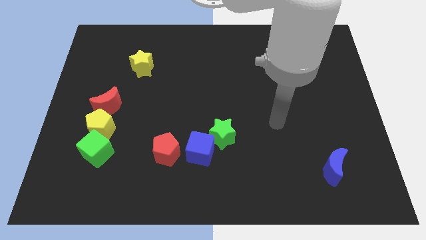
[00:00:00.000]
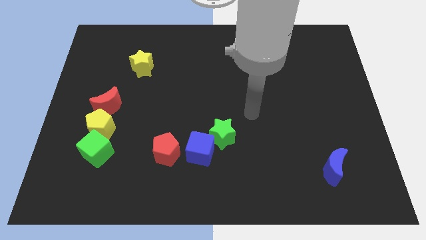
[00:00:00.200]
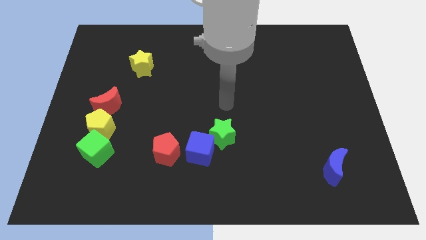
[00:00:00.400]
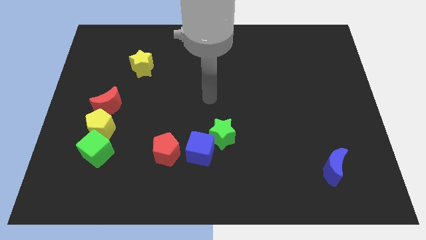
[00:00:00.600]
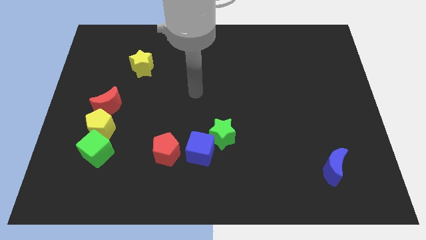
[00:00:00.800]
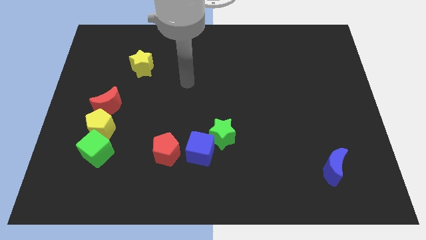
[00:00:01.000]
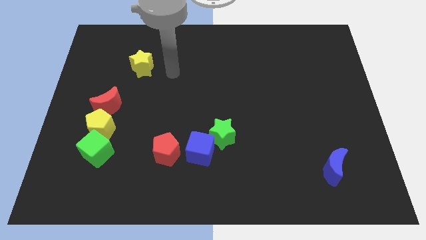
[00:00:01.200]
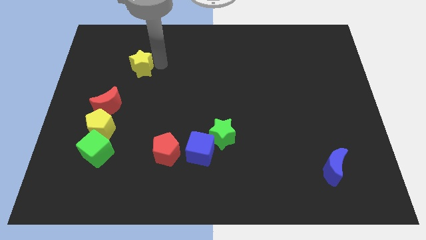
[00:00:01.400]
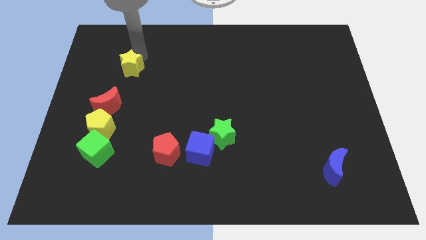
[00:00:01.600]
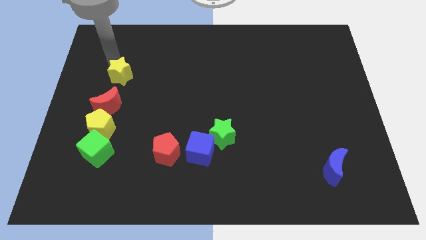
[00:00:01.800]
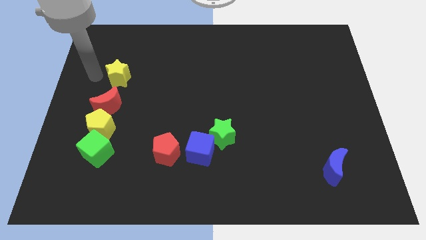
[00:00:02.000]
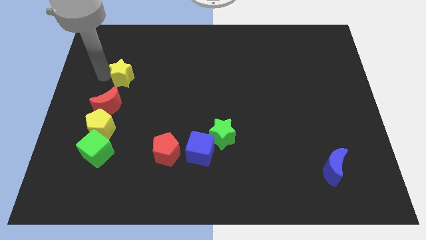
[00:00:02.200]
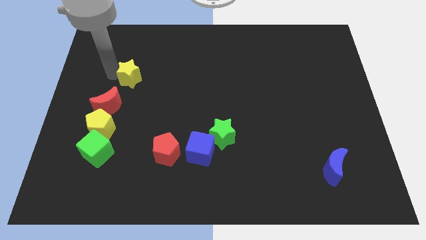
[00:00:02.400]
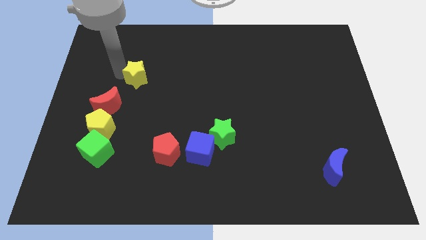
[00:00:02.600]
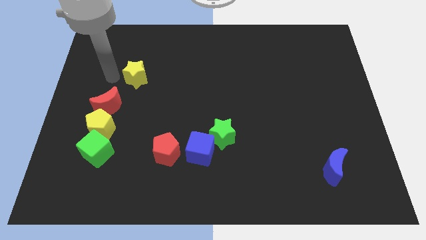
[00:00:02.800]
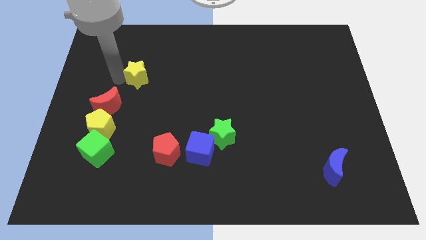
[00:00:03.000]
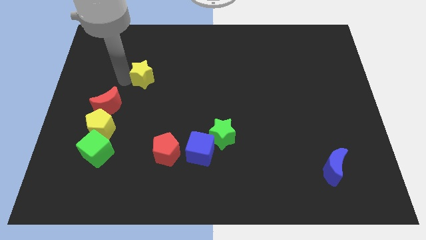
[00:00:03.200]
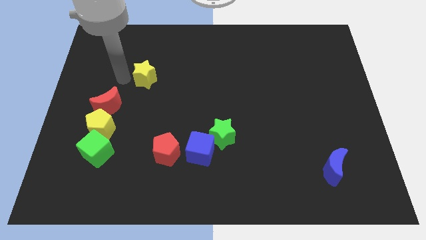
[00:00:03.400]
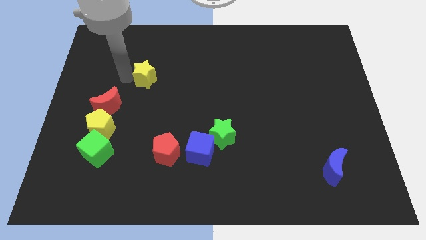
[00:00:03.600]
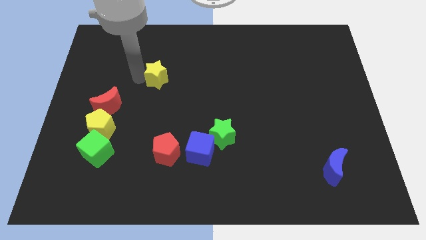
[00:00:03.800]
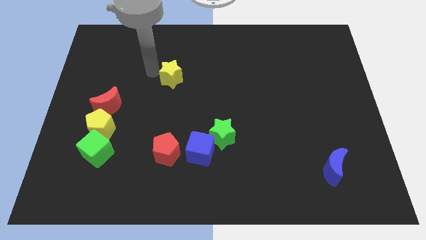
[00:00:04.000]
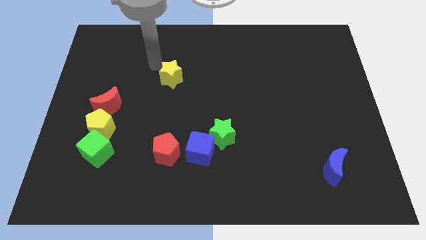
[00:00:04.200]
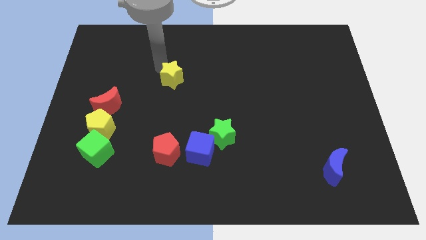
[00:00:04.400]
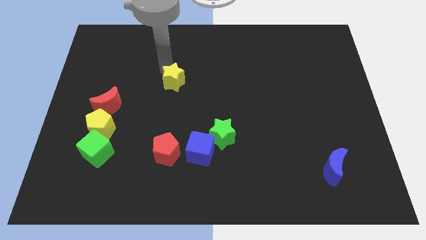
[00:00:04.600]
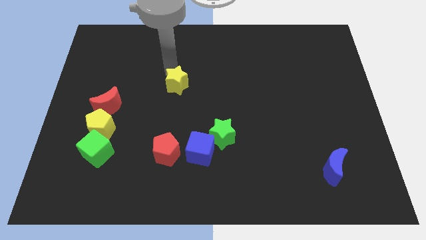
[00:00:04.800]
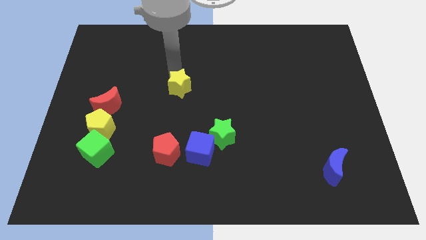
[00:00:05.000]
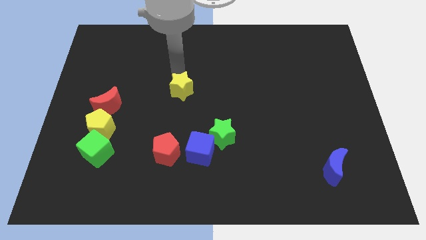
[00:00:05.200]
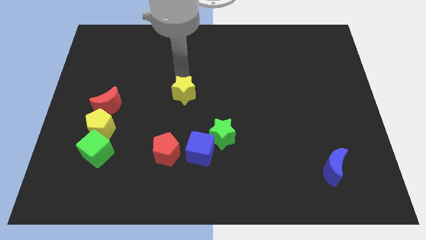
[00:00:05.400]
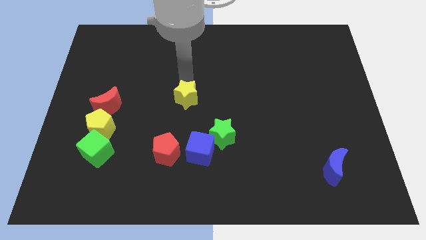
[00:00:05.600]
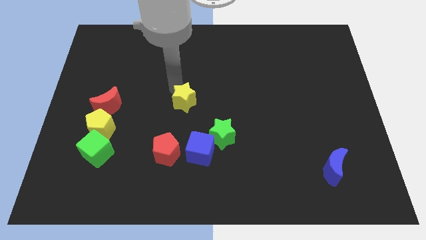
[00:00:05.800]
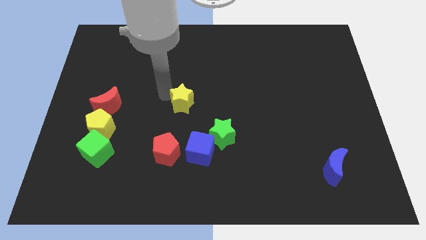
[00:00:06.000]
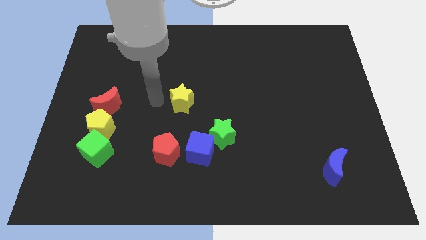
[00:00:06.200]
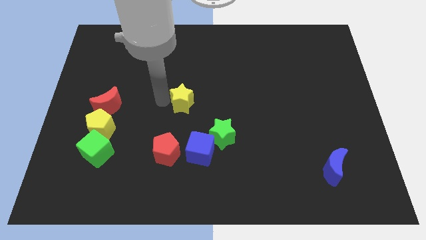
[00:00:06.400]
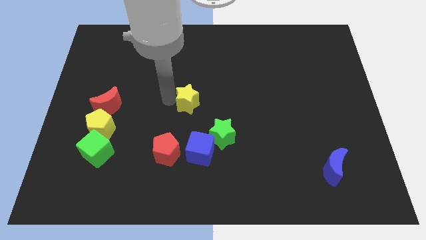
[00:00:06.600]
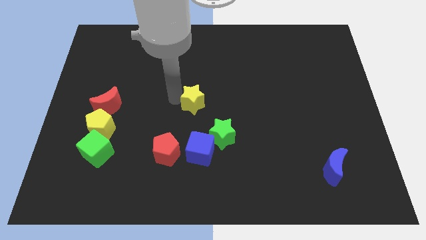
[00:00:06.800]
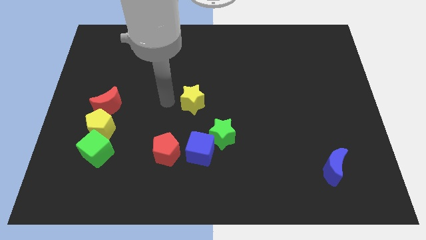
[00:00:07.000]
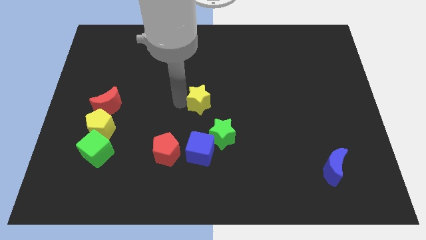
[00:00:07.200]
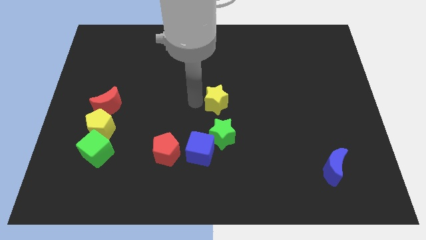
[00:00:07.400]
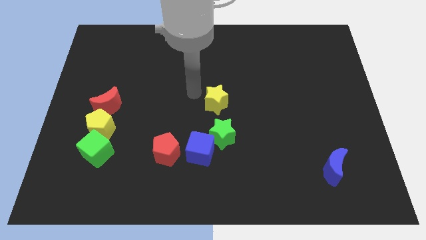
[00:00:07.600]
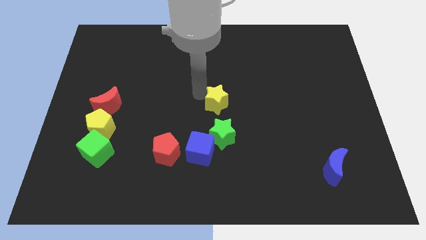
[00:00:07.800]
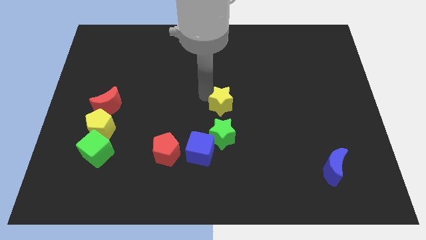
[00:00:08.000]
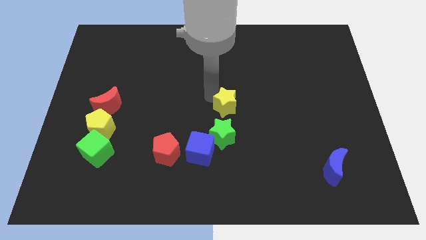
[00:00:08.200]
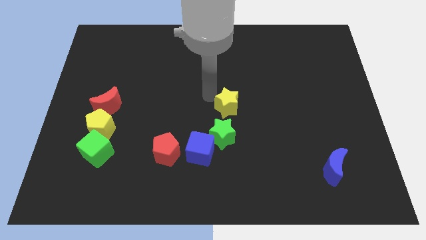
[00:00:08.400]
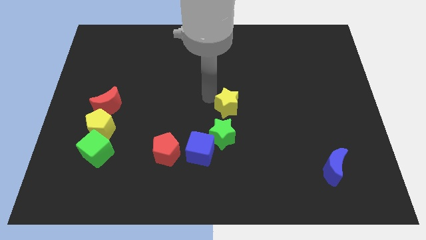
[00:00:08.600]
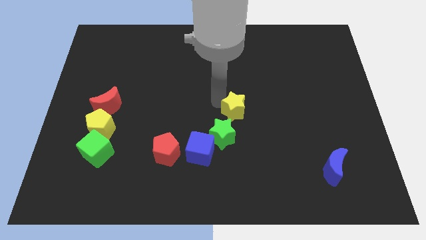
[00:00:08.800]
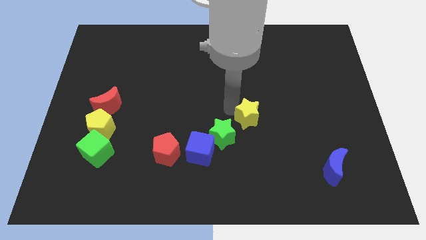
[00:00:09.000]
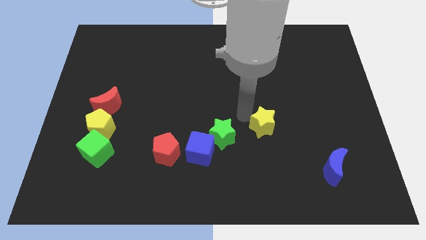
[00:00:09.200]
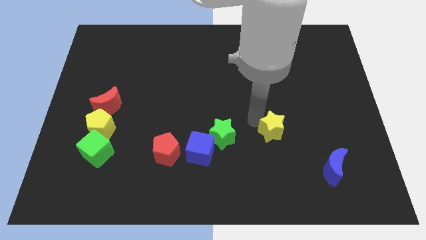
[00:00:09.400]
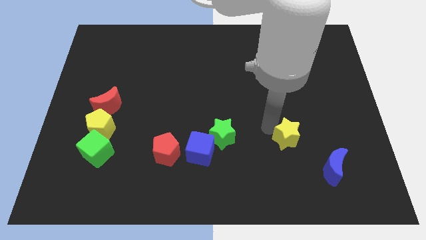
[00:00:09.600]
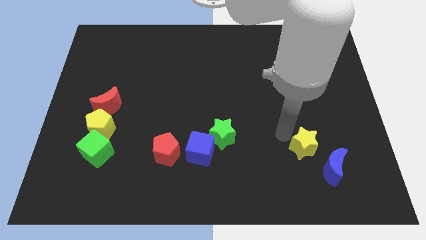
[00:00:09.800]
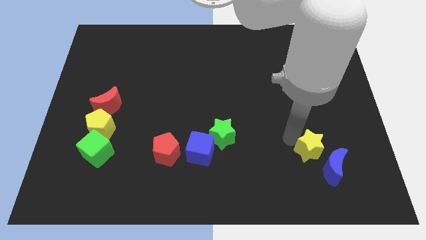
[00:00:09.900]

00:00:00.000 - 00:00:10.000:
slide the yellow star close to the blue moon

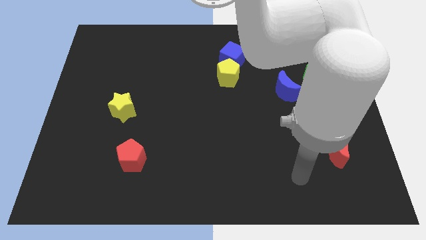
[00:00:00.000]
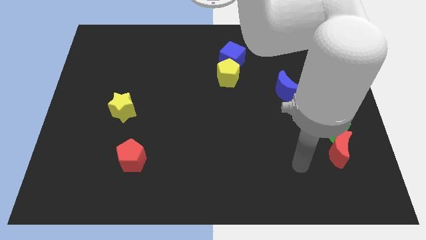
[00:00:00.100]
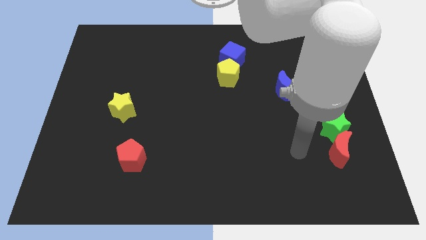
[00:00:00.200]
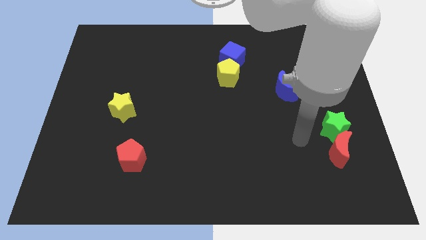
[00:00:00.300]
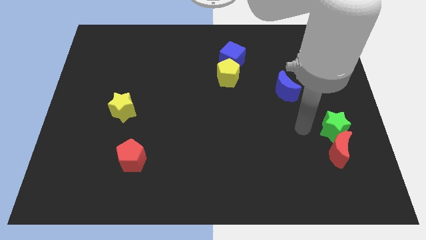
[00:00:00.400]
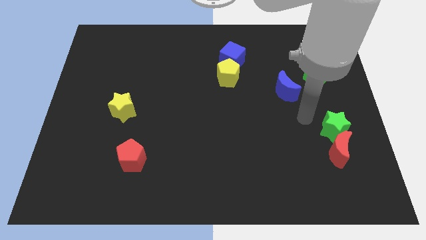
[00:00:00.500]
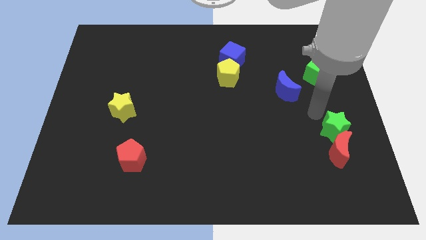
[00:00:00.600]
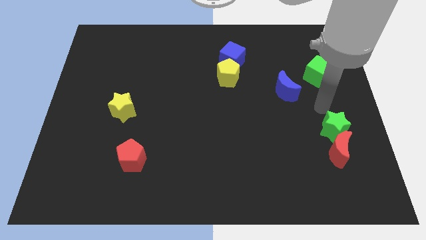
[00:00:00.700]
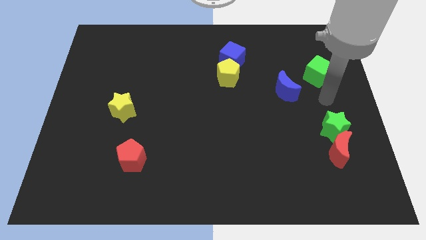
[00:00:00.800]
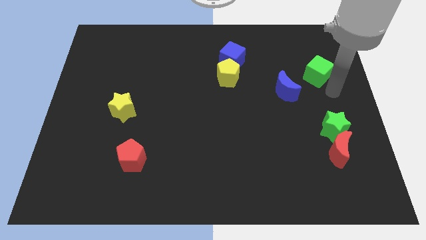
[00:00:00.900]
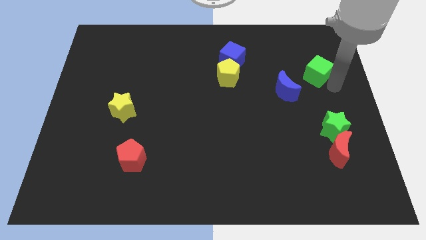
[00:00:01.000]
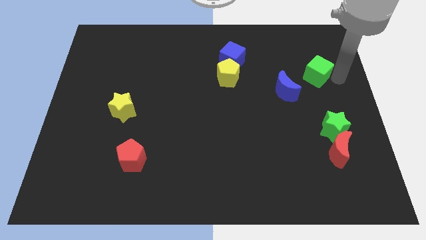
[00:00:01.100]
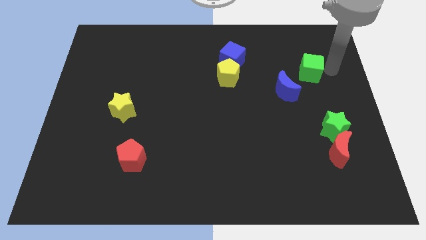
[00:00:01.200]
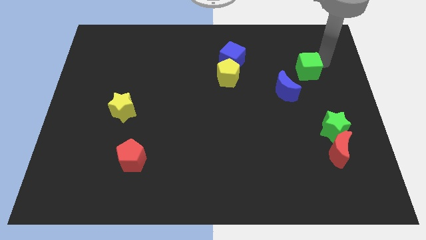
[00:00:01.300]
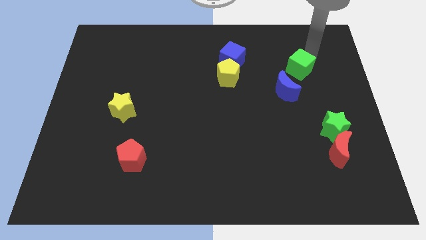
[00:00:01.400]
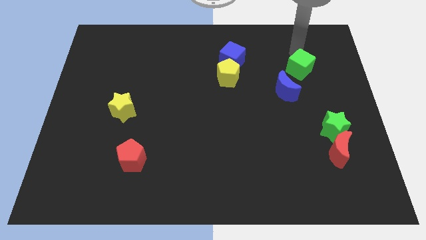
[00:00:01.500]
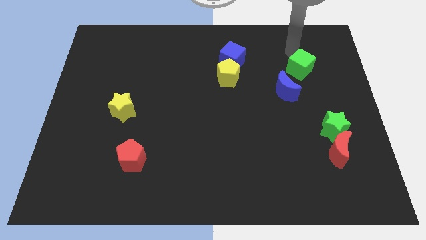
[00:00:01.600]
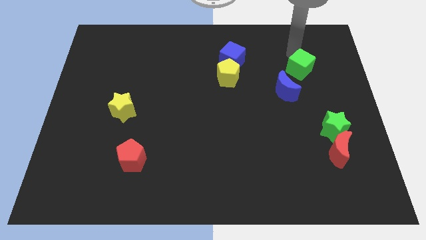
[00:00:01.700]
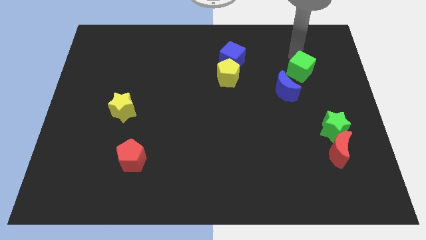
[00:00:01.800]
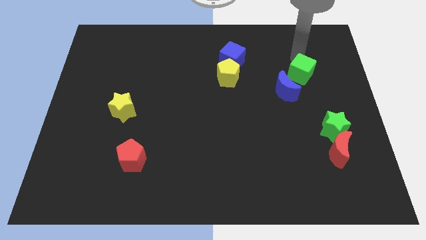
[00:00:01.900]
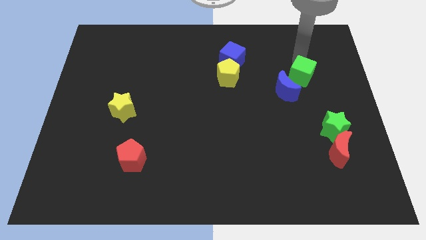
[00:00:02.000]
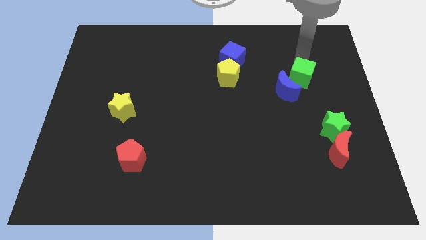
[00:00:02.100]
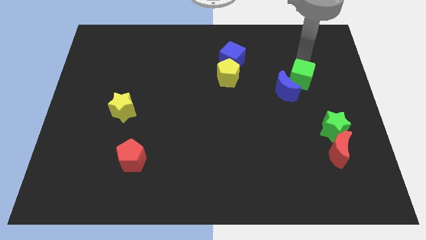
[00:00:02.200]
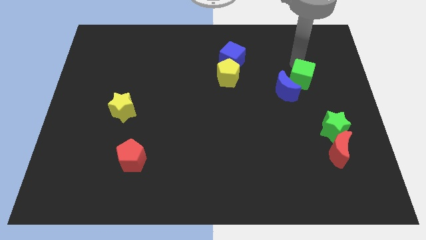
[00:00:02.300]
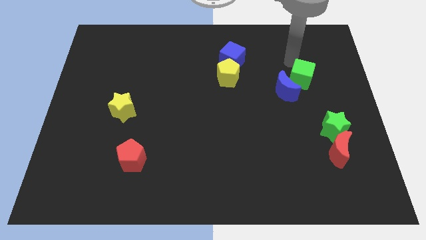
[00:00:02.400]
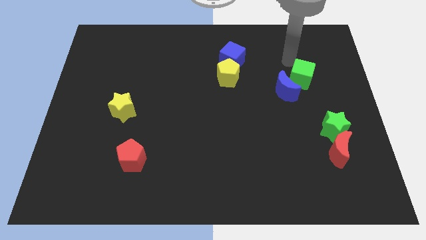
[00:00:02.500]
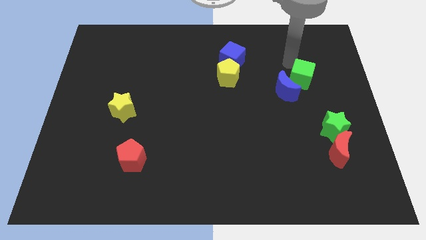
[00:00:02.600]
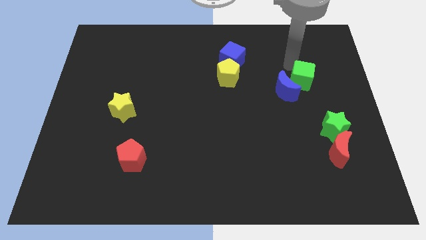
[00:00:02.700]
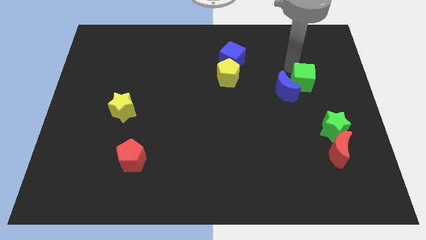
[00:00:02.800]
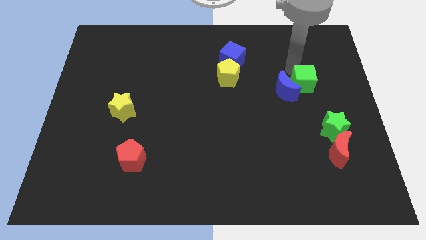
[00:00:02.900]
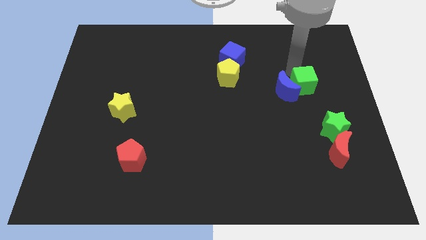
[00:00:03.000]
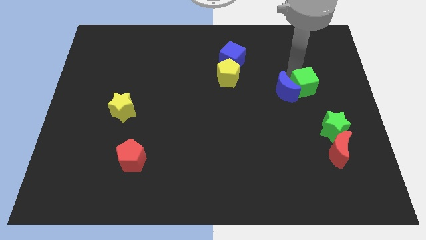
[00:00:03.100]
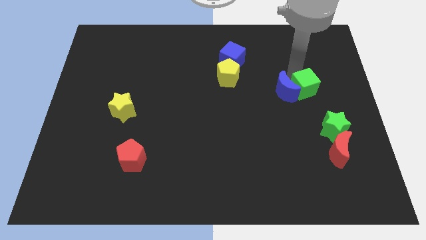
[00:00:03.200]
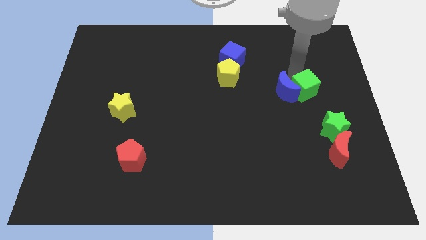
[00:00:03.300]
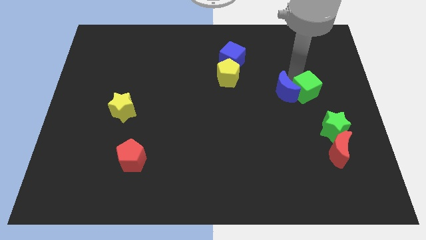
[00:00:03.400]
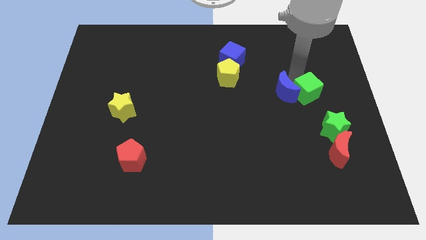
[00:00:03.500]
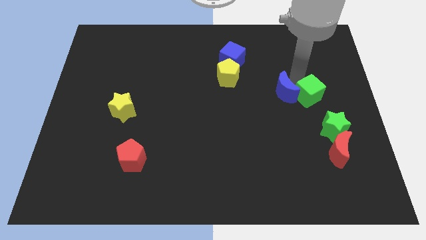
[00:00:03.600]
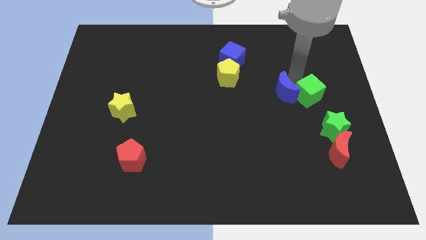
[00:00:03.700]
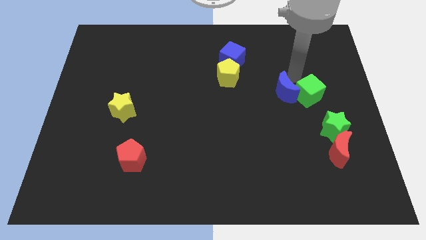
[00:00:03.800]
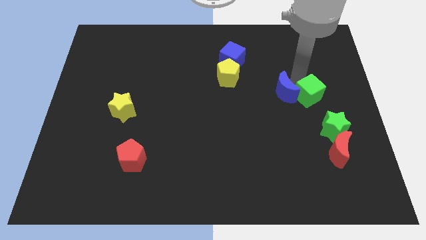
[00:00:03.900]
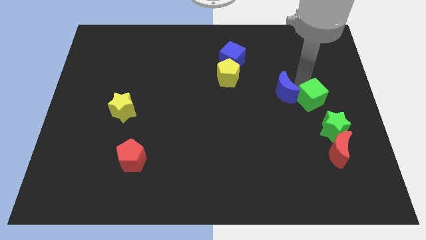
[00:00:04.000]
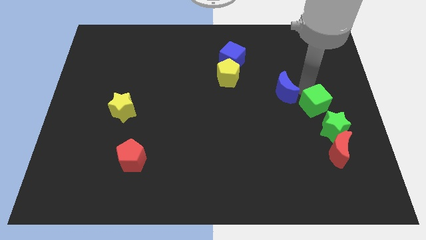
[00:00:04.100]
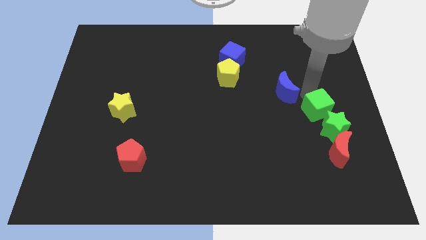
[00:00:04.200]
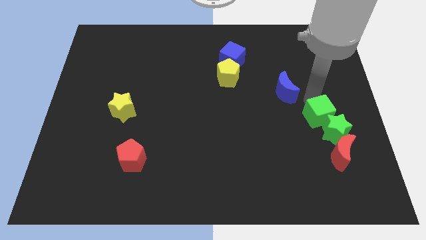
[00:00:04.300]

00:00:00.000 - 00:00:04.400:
move the green cube next to the green star
